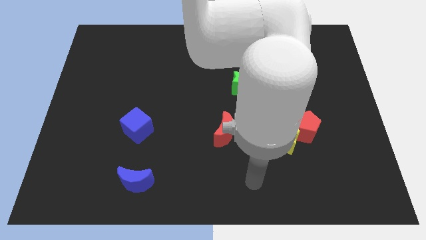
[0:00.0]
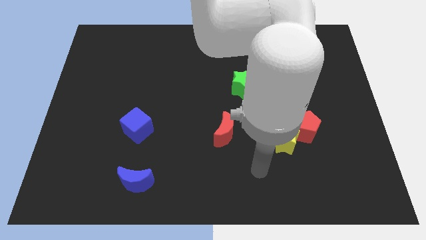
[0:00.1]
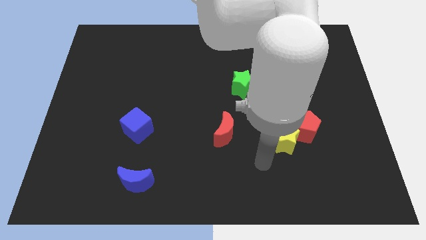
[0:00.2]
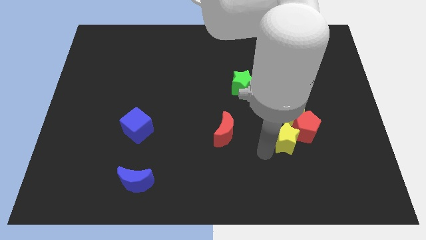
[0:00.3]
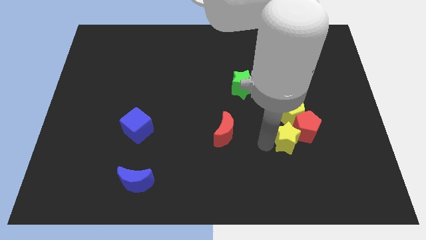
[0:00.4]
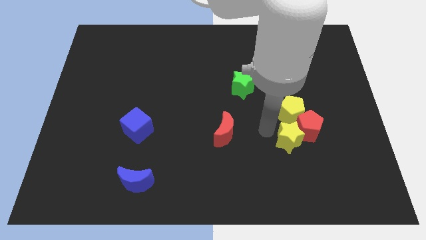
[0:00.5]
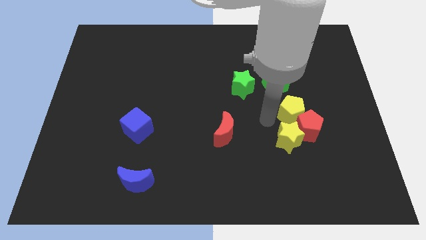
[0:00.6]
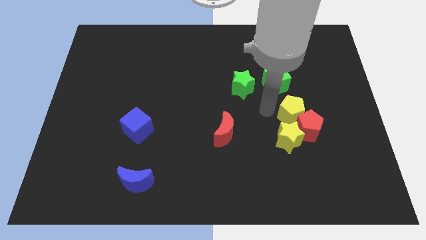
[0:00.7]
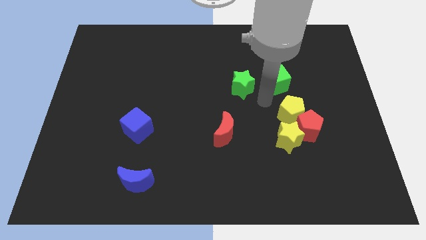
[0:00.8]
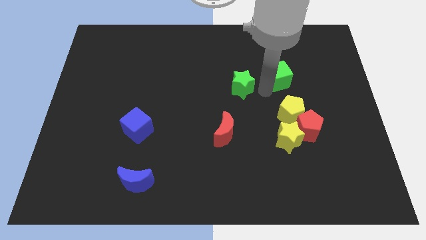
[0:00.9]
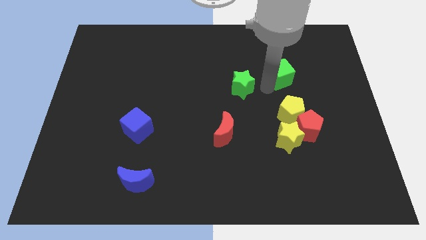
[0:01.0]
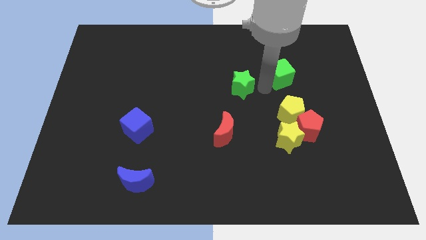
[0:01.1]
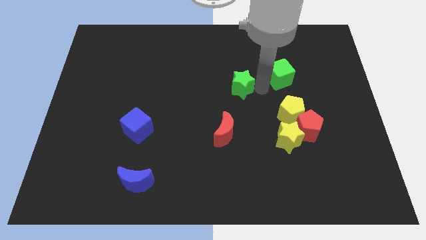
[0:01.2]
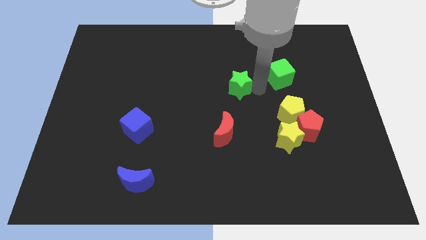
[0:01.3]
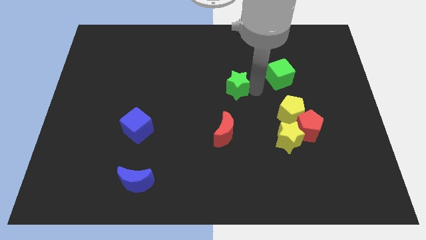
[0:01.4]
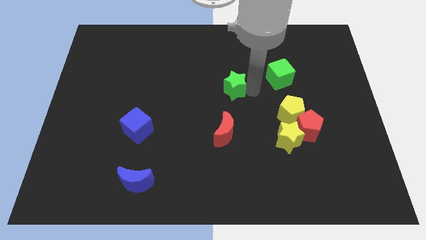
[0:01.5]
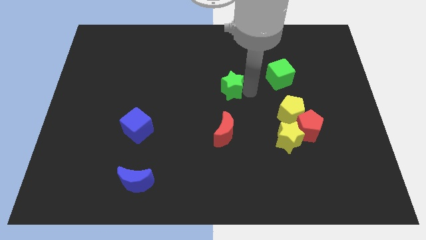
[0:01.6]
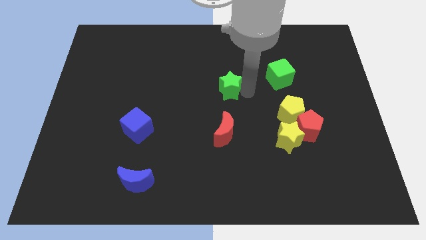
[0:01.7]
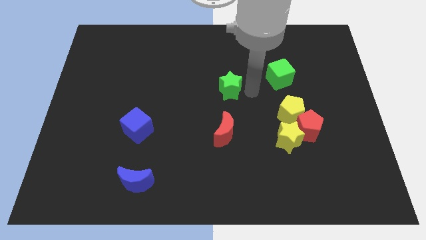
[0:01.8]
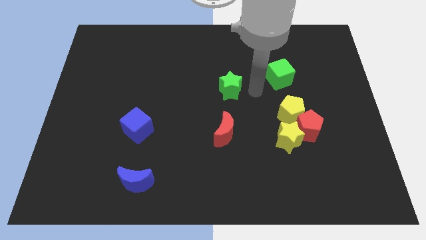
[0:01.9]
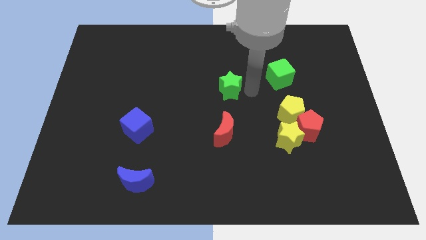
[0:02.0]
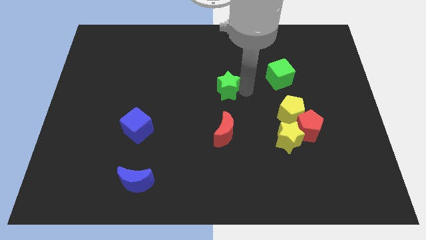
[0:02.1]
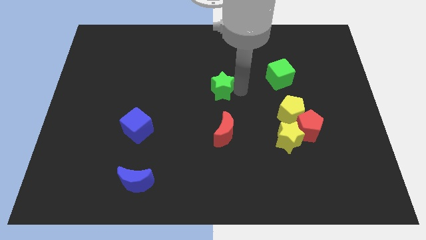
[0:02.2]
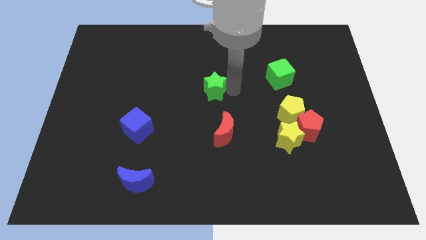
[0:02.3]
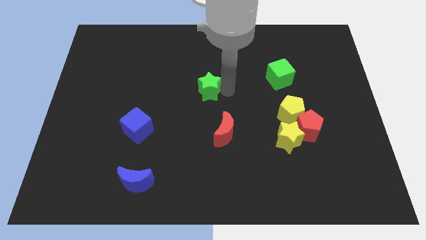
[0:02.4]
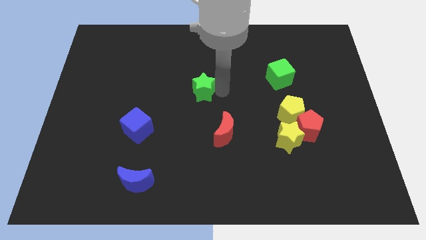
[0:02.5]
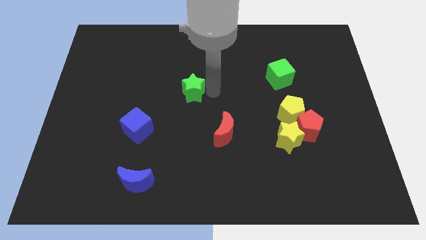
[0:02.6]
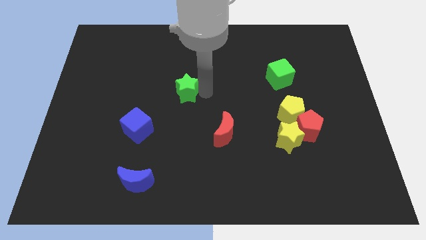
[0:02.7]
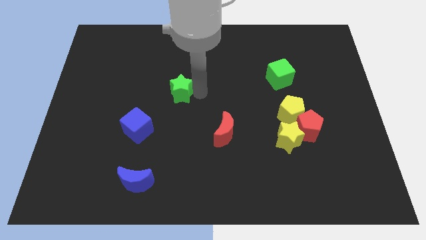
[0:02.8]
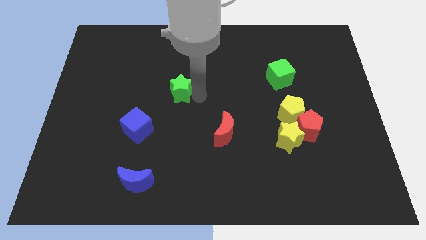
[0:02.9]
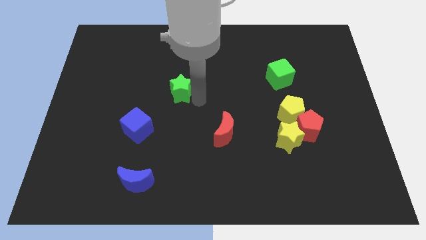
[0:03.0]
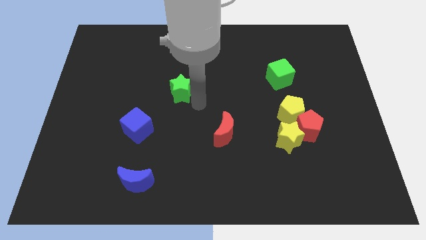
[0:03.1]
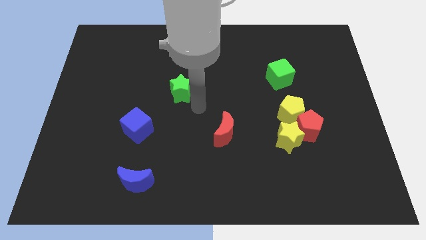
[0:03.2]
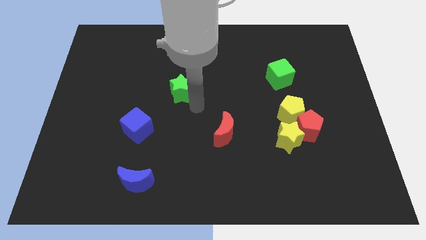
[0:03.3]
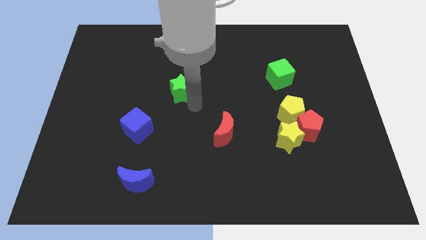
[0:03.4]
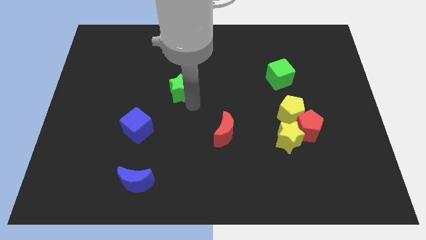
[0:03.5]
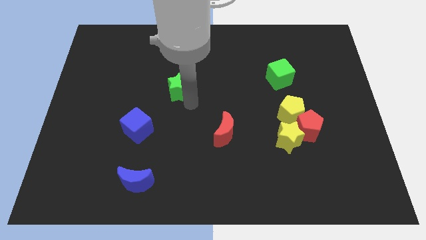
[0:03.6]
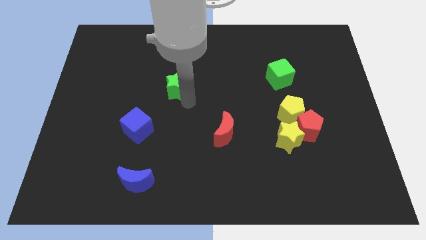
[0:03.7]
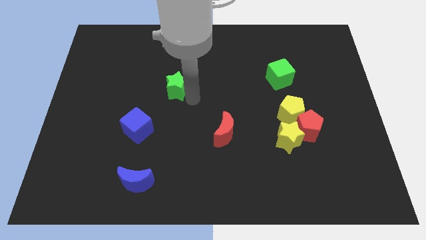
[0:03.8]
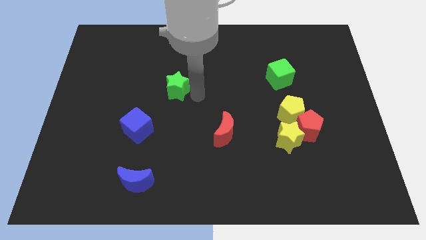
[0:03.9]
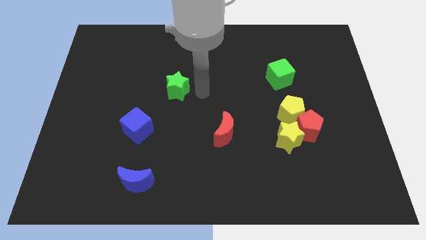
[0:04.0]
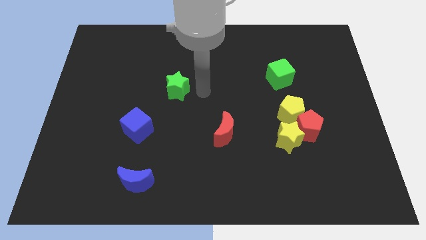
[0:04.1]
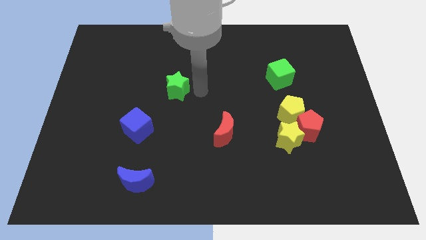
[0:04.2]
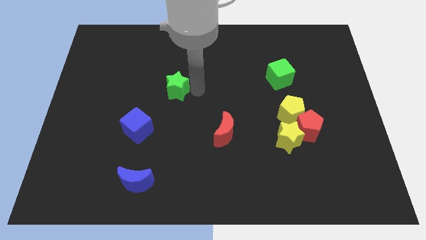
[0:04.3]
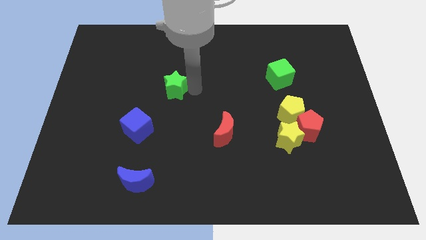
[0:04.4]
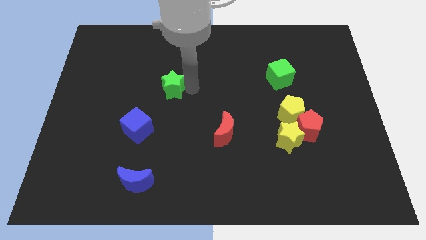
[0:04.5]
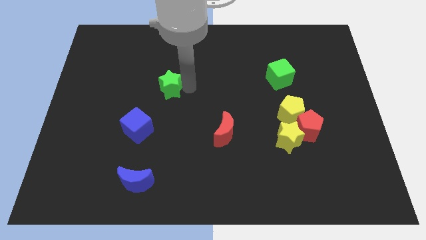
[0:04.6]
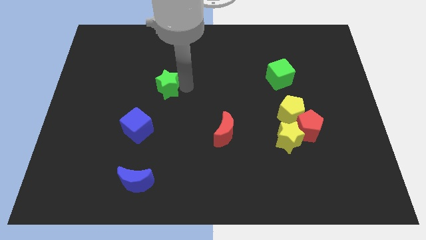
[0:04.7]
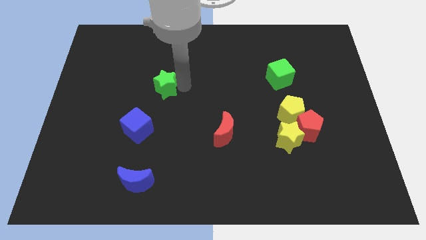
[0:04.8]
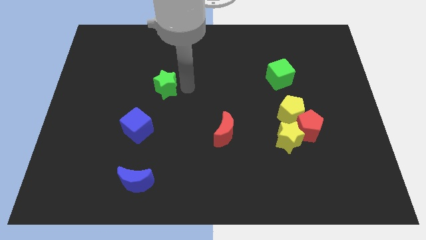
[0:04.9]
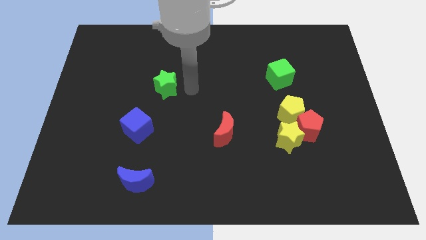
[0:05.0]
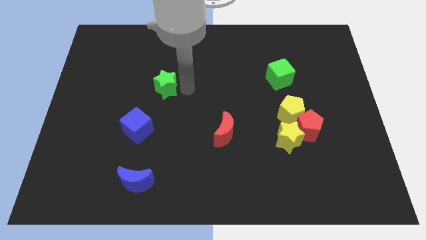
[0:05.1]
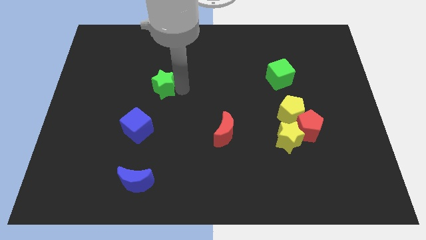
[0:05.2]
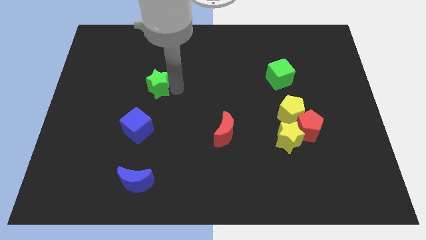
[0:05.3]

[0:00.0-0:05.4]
slide the green star left

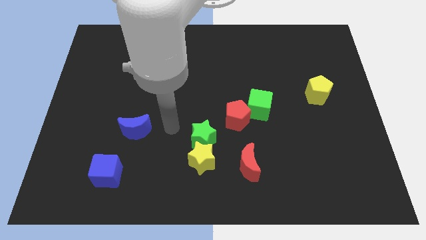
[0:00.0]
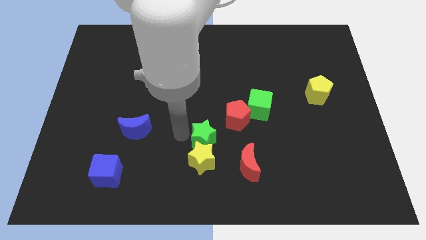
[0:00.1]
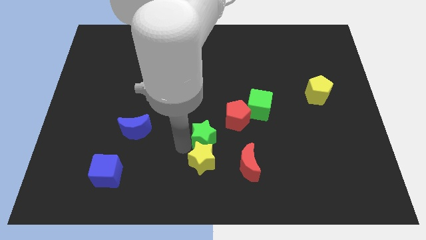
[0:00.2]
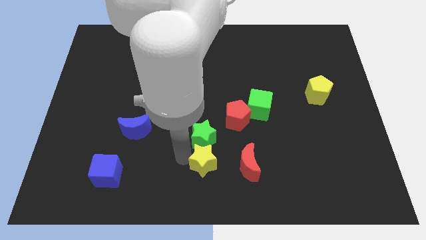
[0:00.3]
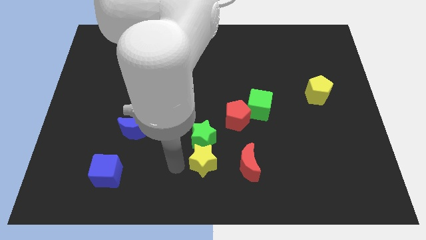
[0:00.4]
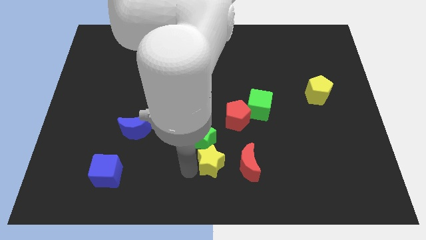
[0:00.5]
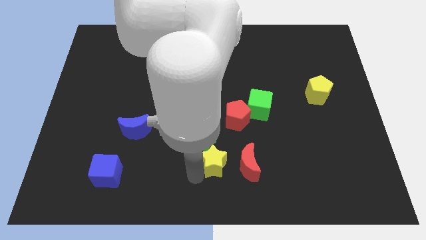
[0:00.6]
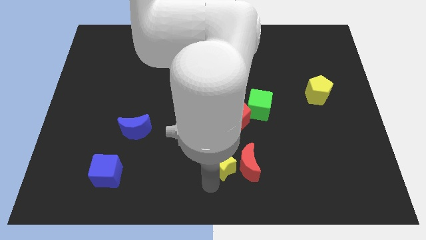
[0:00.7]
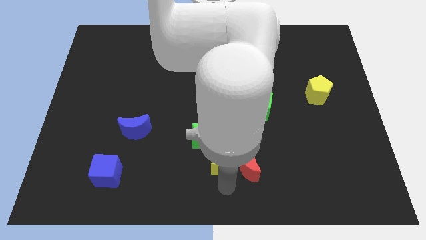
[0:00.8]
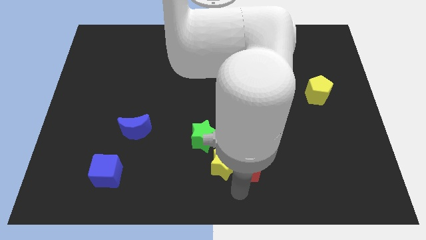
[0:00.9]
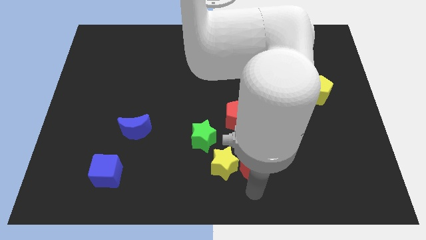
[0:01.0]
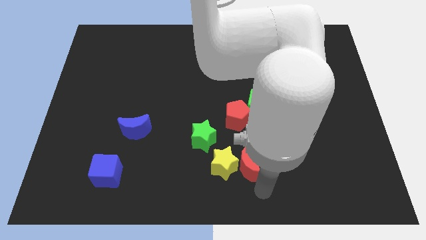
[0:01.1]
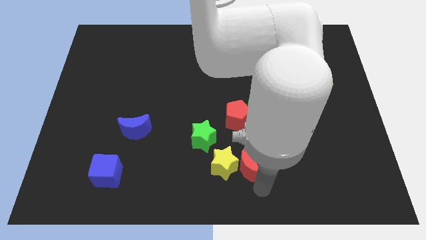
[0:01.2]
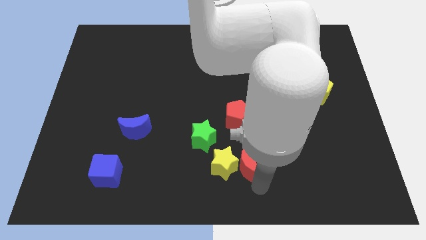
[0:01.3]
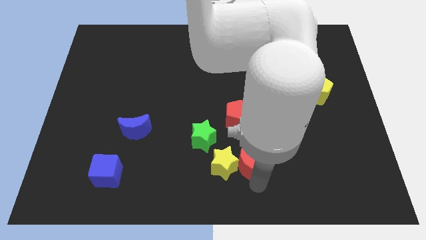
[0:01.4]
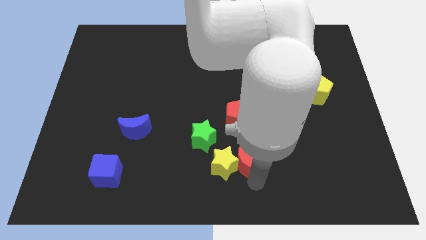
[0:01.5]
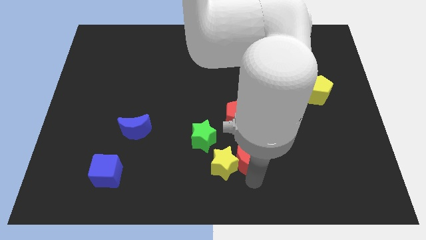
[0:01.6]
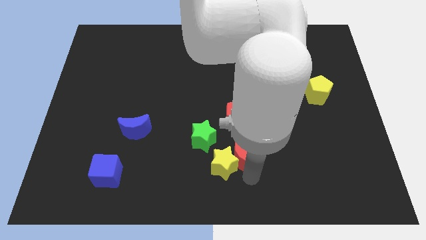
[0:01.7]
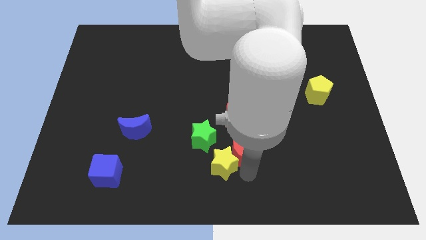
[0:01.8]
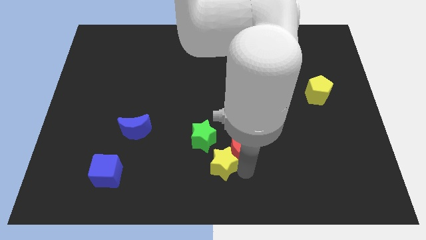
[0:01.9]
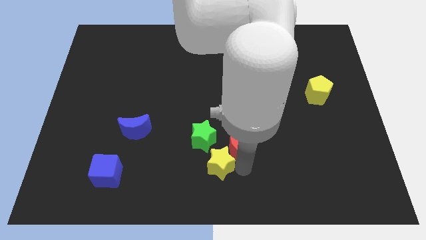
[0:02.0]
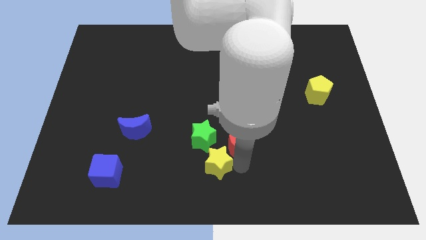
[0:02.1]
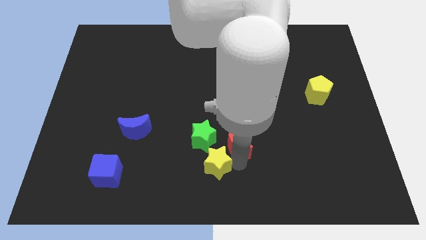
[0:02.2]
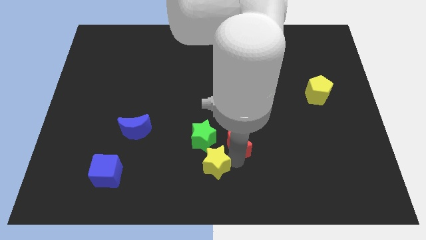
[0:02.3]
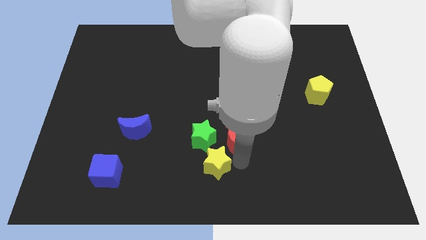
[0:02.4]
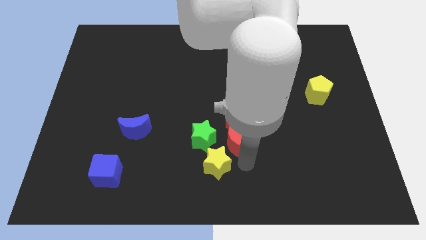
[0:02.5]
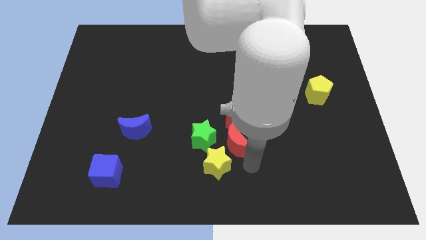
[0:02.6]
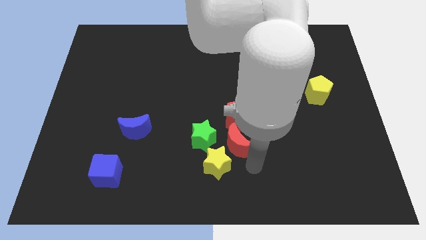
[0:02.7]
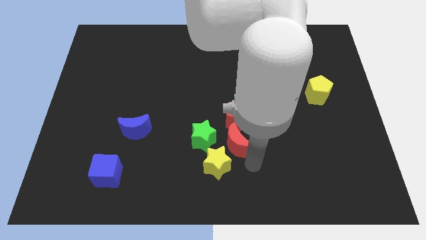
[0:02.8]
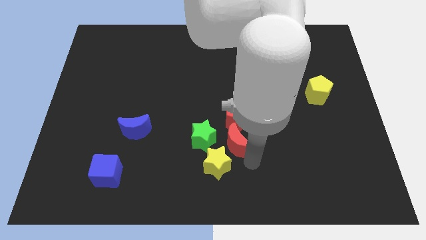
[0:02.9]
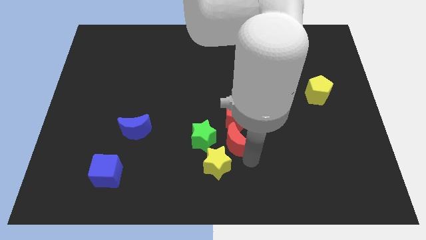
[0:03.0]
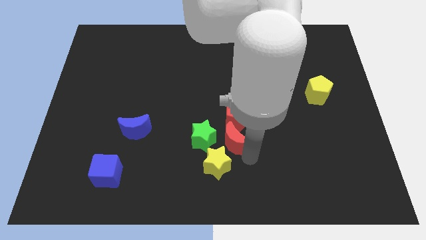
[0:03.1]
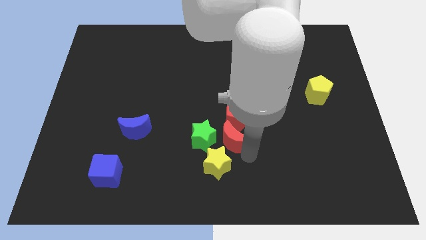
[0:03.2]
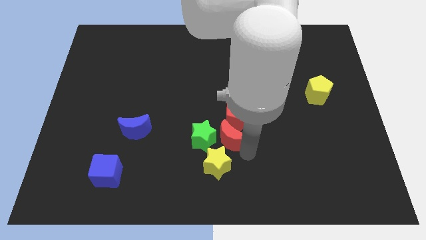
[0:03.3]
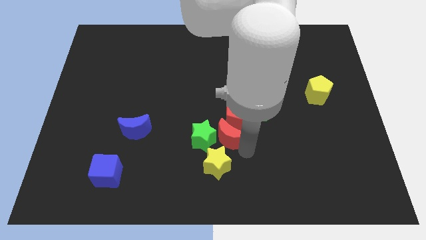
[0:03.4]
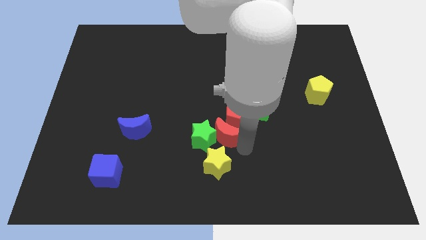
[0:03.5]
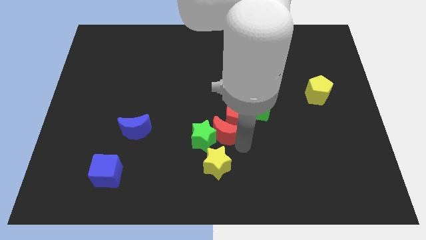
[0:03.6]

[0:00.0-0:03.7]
push the red moon up slightly
